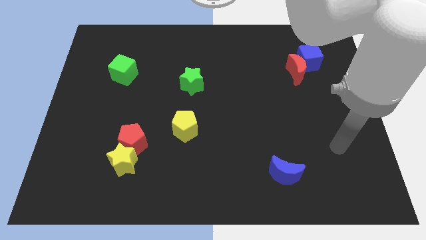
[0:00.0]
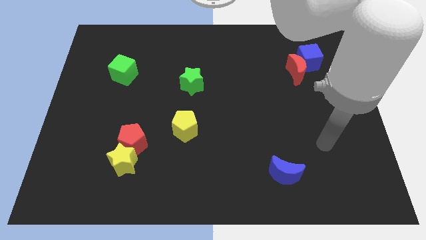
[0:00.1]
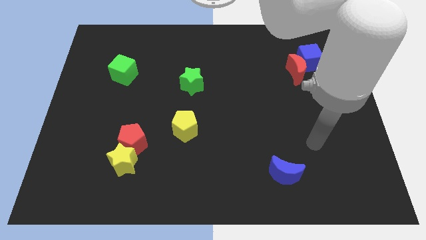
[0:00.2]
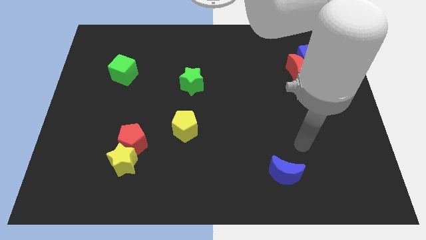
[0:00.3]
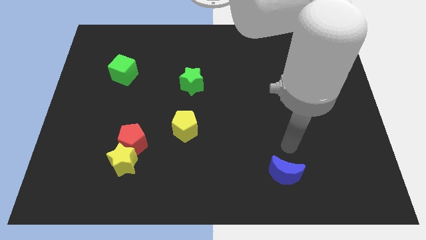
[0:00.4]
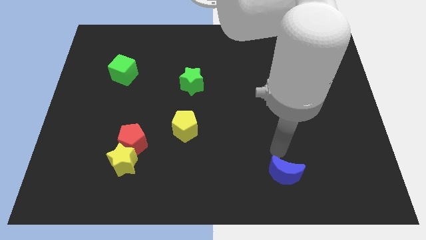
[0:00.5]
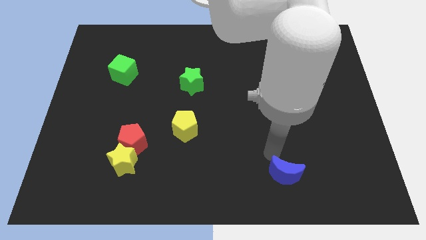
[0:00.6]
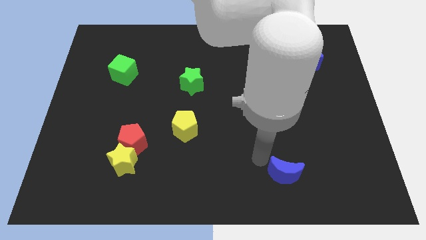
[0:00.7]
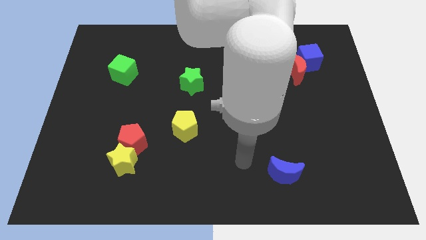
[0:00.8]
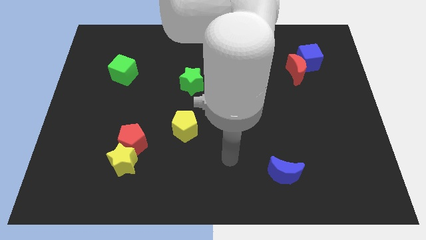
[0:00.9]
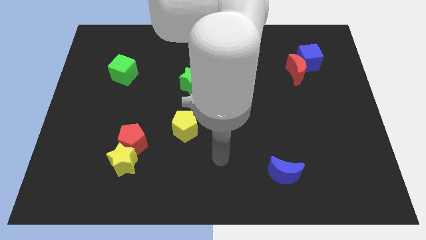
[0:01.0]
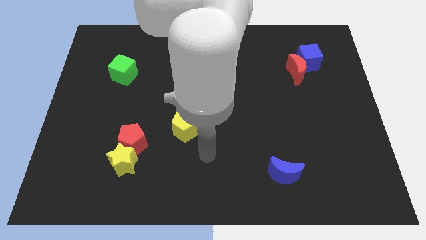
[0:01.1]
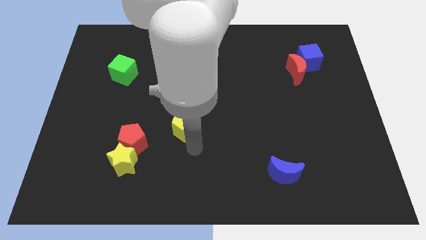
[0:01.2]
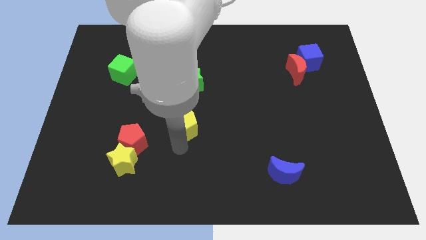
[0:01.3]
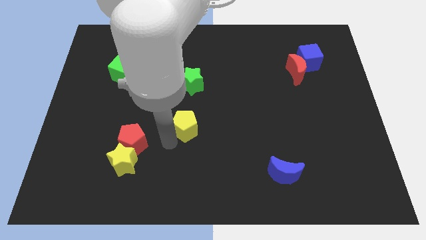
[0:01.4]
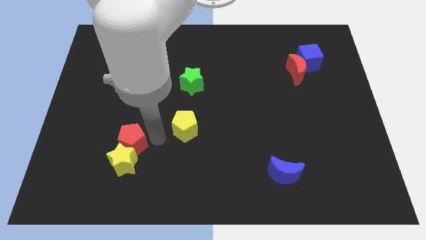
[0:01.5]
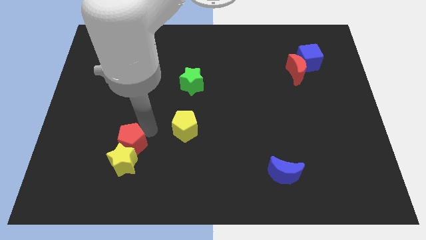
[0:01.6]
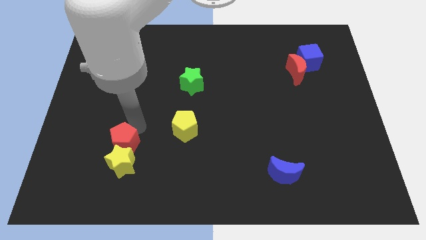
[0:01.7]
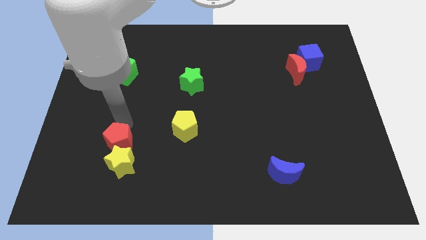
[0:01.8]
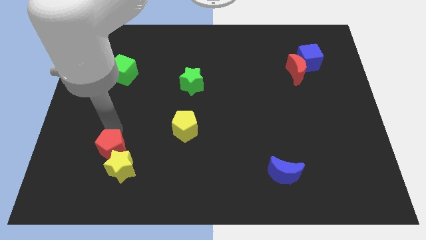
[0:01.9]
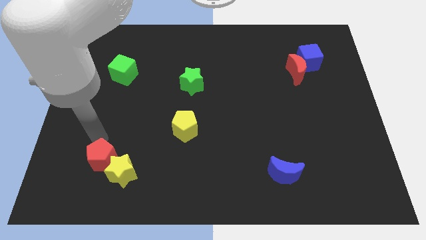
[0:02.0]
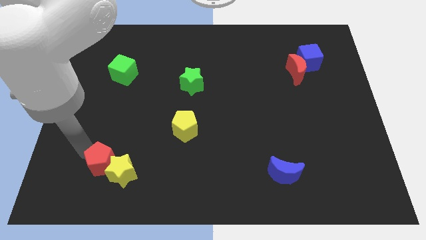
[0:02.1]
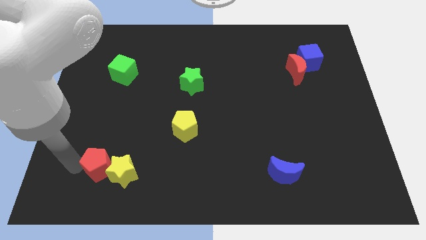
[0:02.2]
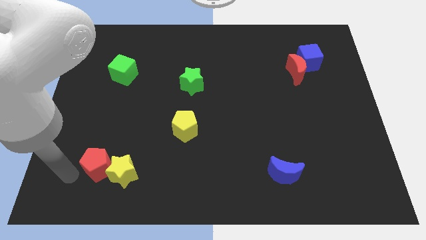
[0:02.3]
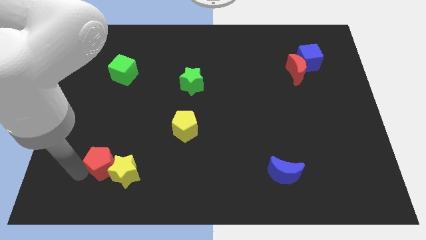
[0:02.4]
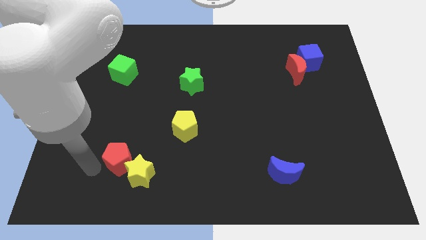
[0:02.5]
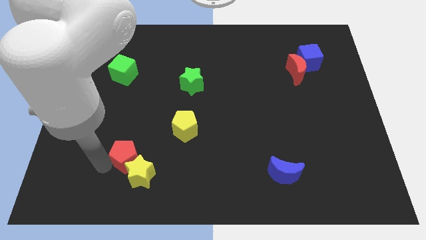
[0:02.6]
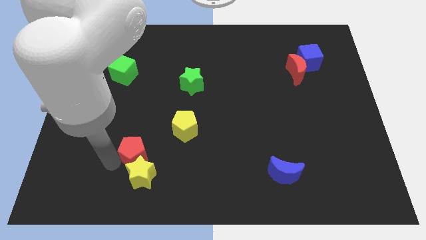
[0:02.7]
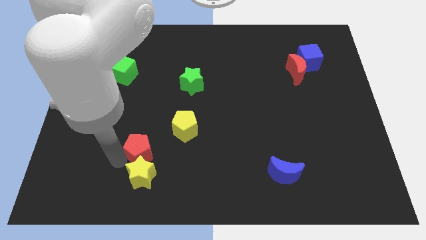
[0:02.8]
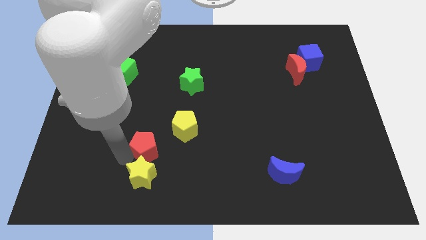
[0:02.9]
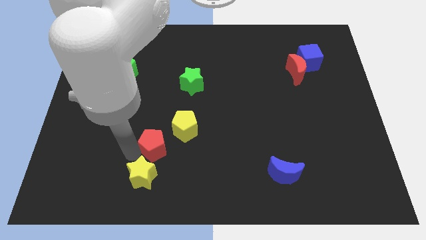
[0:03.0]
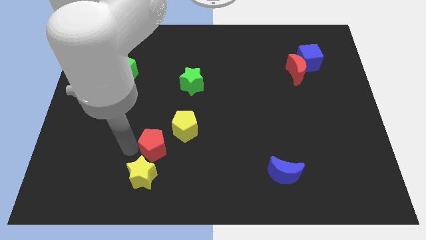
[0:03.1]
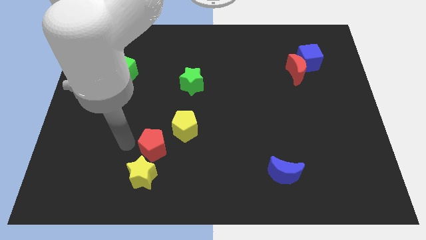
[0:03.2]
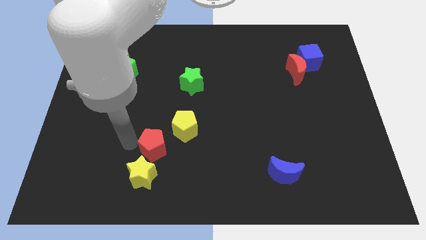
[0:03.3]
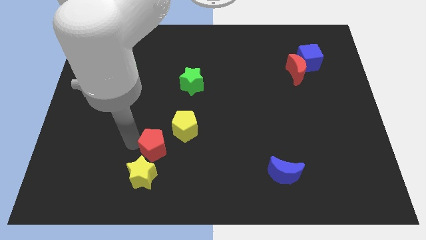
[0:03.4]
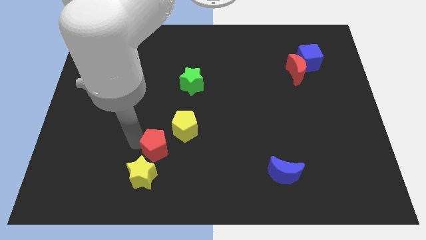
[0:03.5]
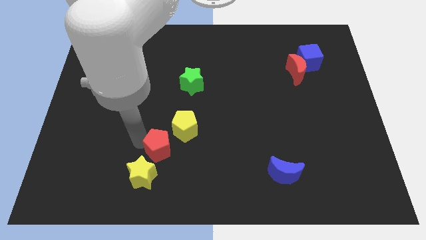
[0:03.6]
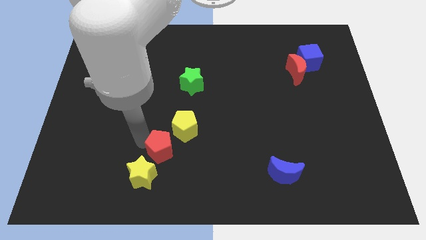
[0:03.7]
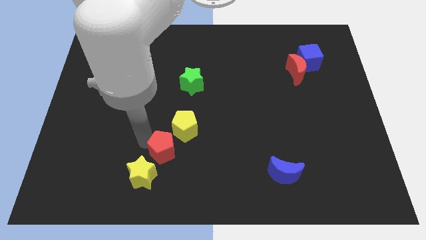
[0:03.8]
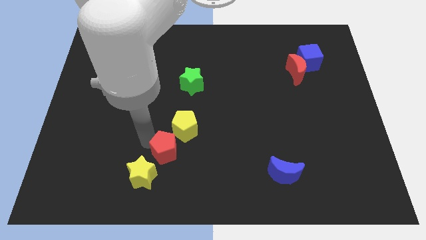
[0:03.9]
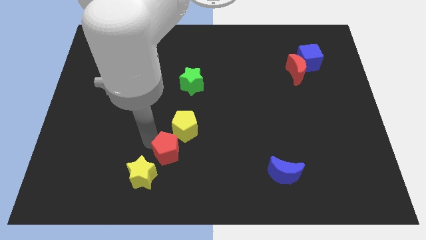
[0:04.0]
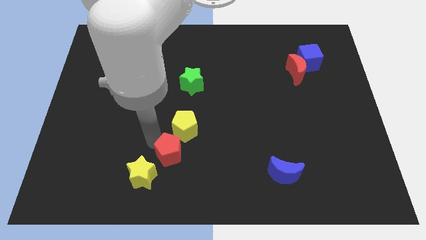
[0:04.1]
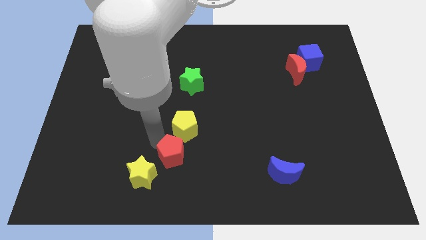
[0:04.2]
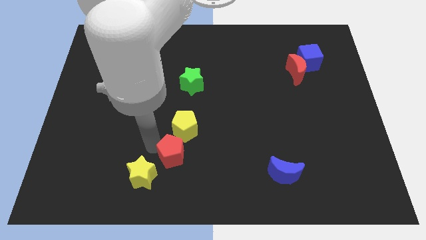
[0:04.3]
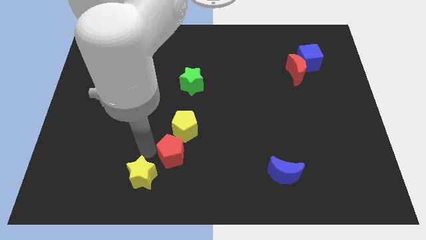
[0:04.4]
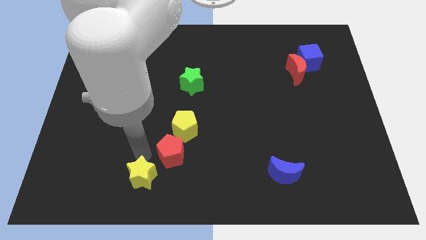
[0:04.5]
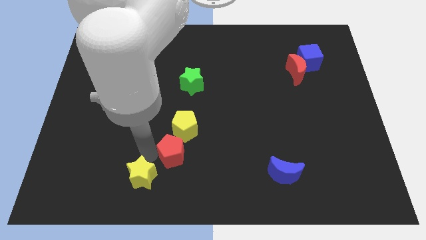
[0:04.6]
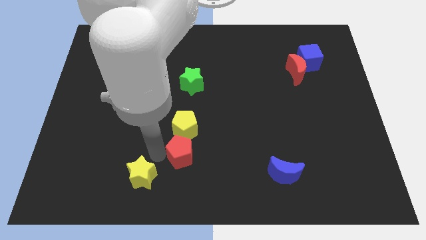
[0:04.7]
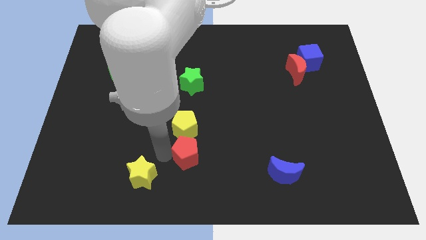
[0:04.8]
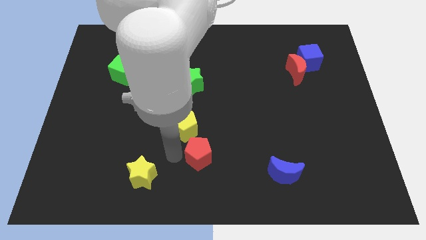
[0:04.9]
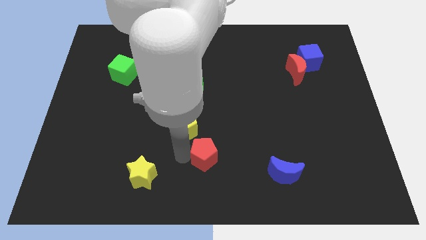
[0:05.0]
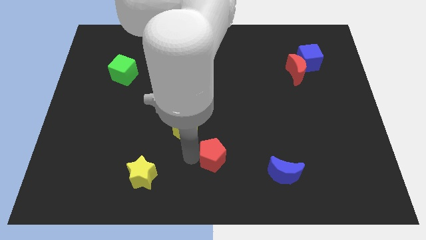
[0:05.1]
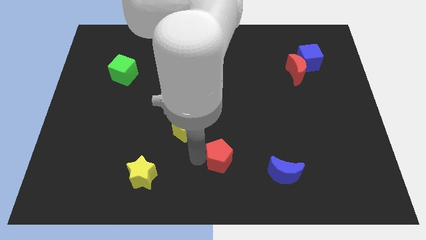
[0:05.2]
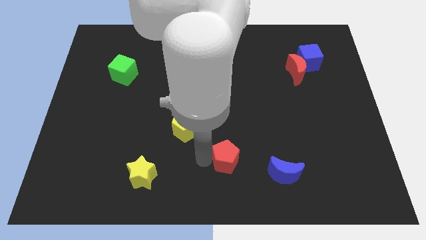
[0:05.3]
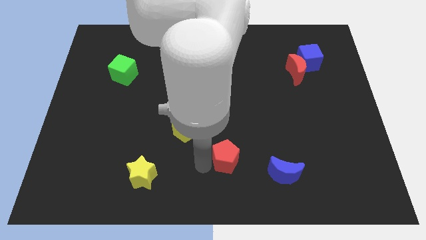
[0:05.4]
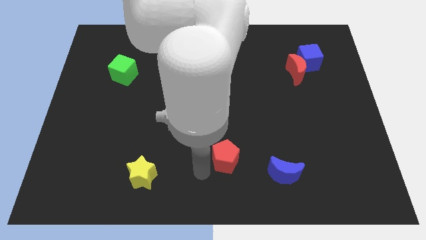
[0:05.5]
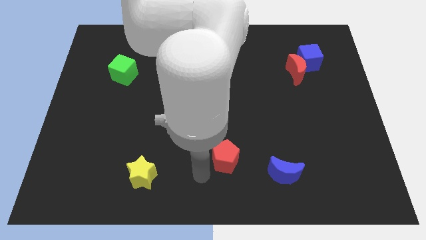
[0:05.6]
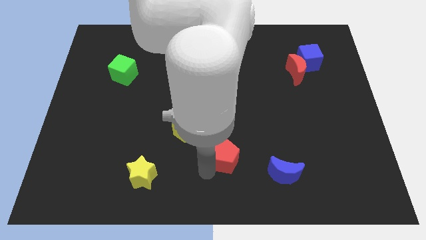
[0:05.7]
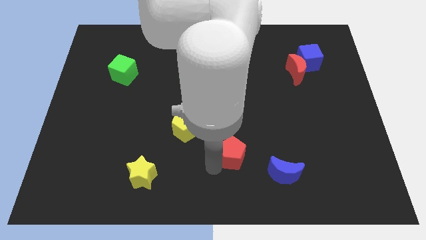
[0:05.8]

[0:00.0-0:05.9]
move the red pentagon right

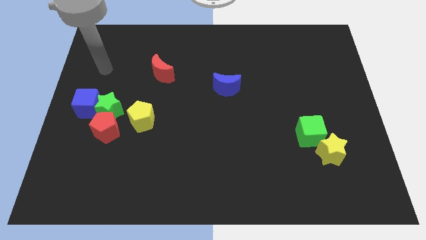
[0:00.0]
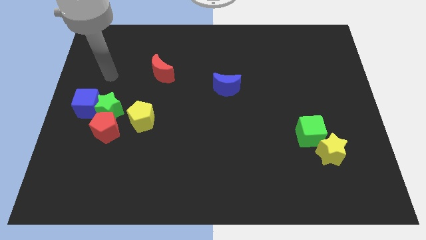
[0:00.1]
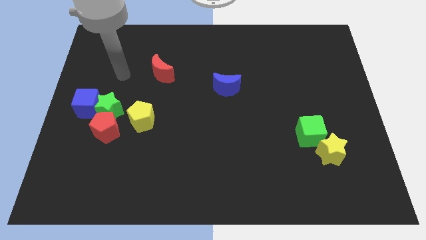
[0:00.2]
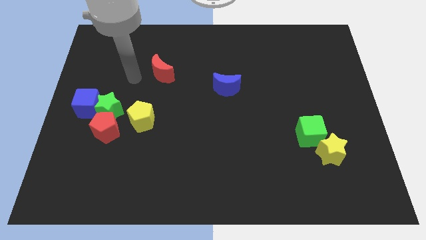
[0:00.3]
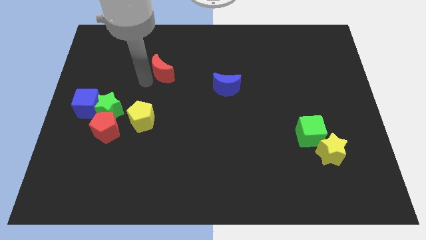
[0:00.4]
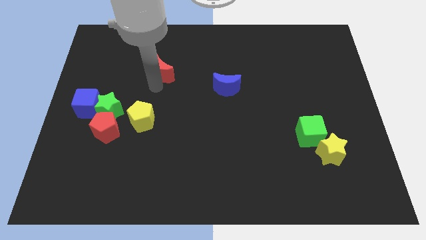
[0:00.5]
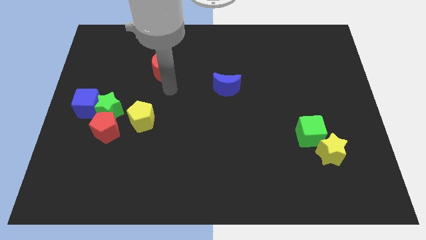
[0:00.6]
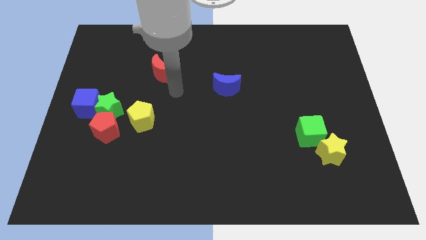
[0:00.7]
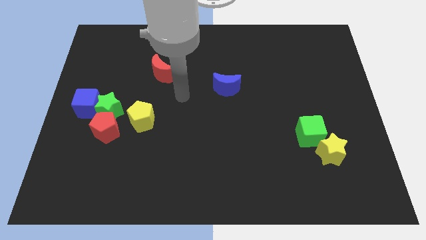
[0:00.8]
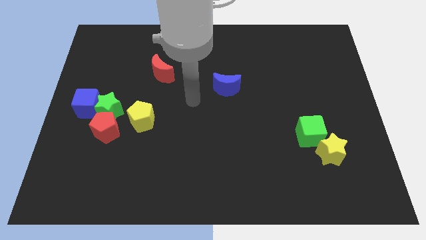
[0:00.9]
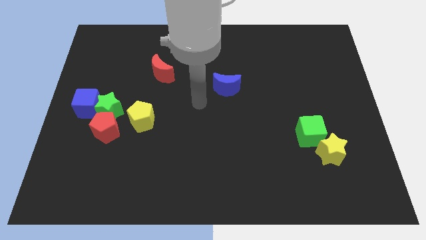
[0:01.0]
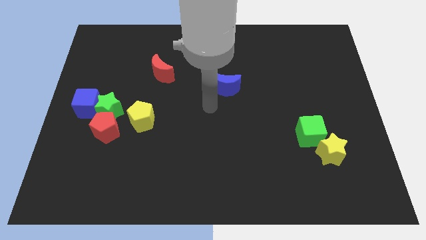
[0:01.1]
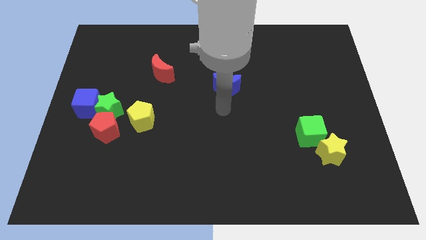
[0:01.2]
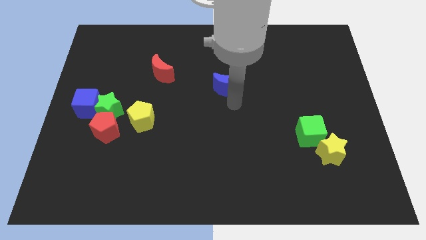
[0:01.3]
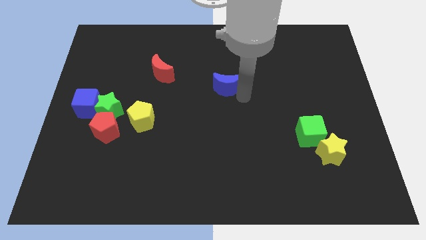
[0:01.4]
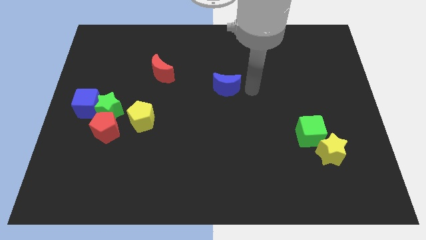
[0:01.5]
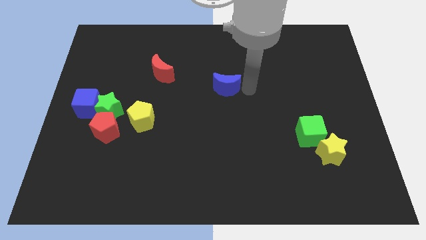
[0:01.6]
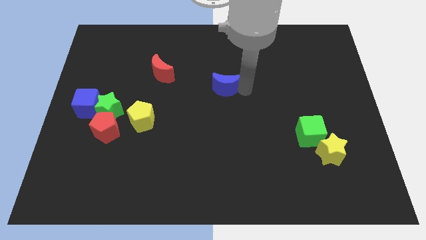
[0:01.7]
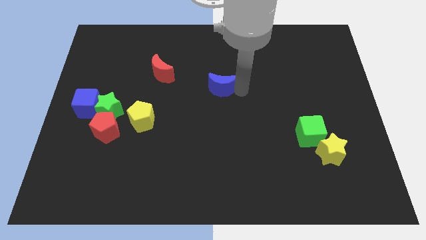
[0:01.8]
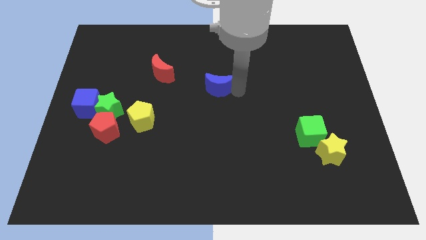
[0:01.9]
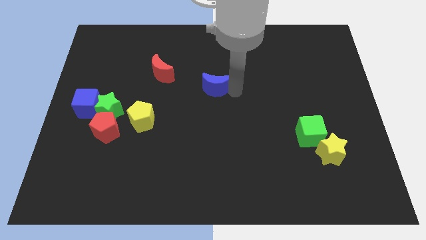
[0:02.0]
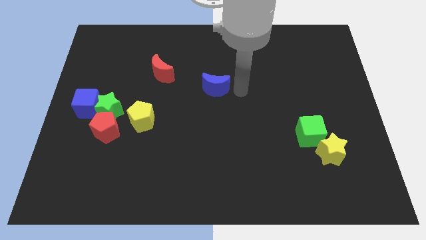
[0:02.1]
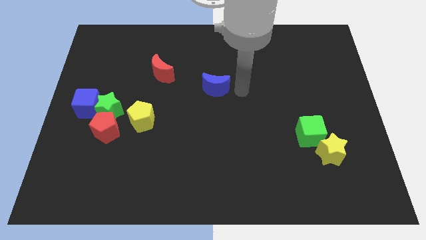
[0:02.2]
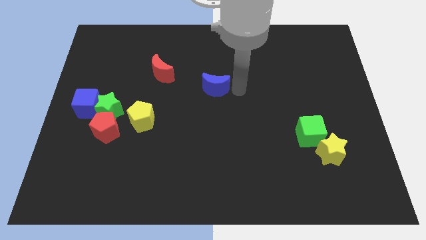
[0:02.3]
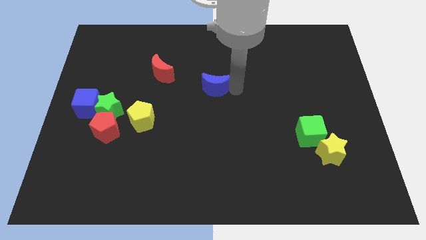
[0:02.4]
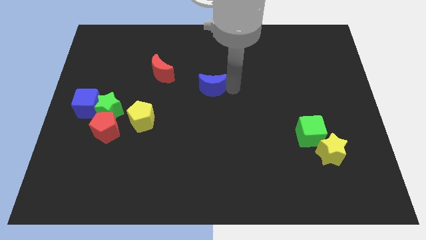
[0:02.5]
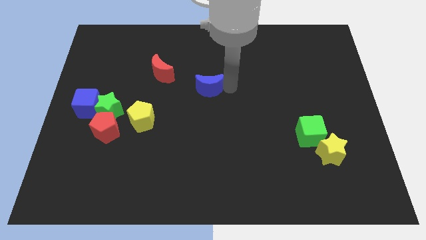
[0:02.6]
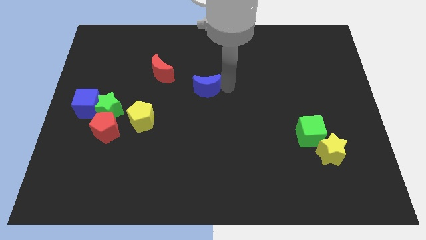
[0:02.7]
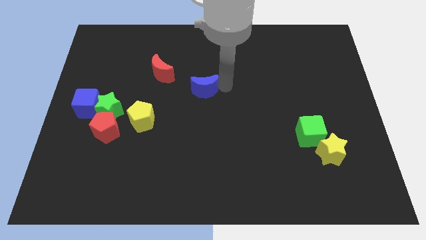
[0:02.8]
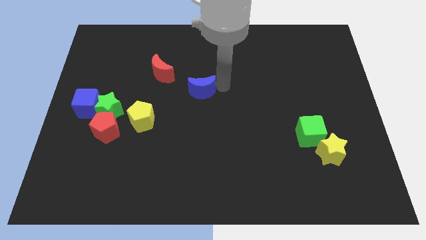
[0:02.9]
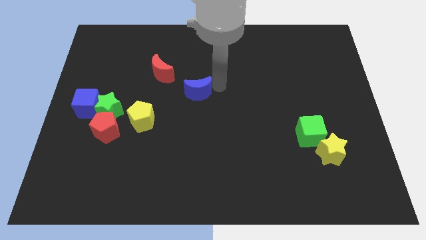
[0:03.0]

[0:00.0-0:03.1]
slightly push the blue moon to the left
